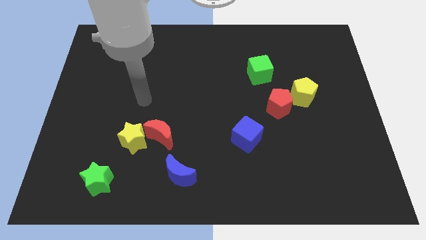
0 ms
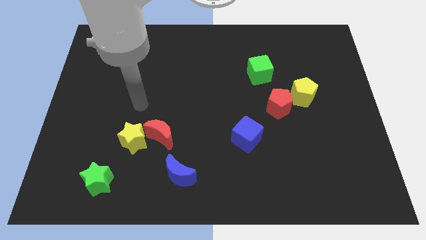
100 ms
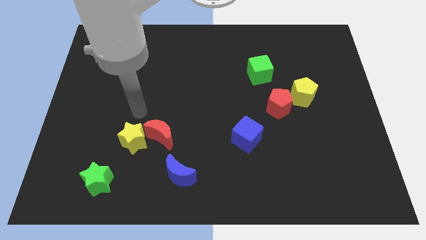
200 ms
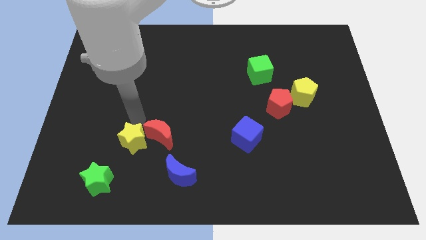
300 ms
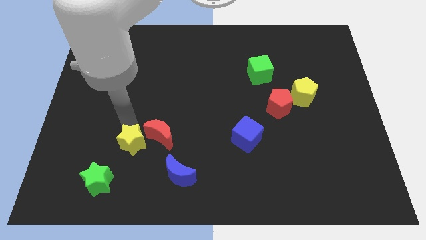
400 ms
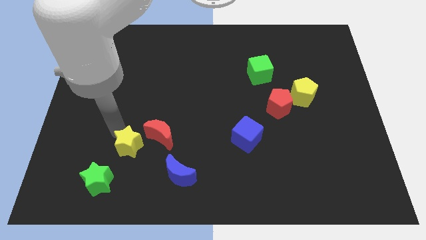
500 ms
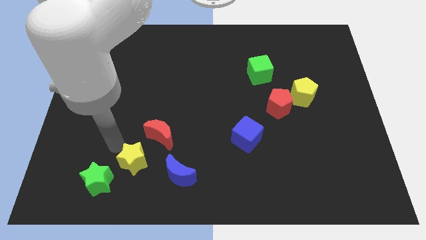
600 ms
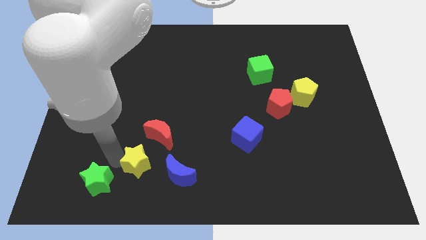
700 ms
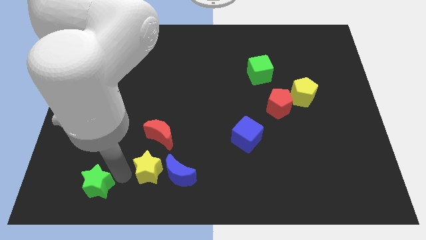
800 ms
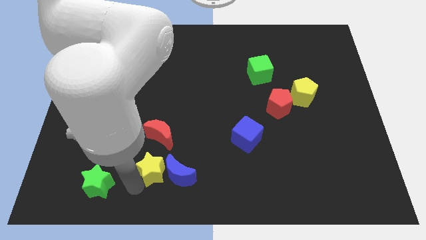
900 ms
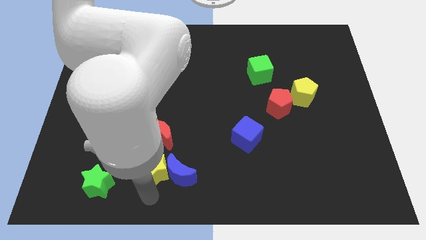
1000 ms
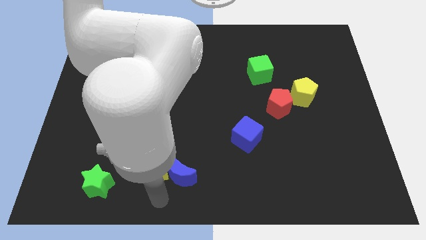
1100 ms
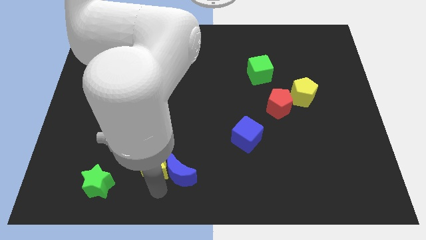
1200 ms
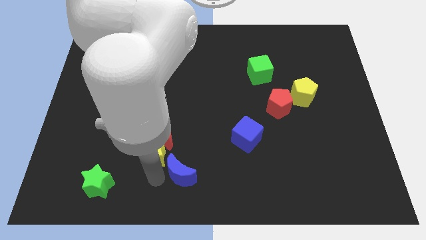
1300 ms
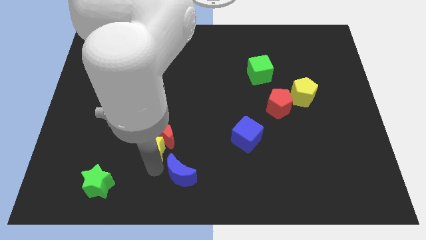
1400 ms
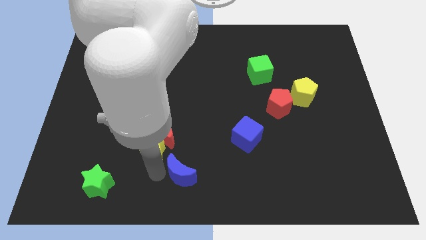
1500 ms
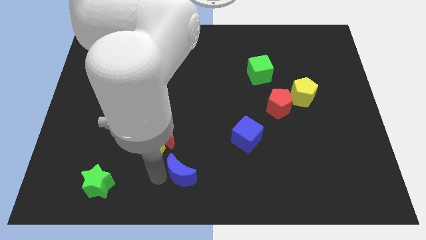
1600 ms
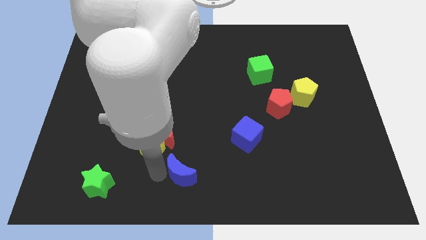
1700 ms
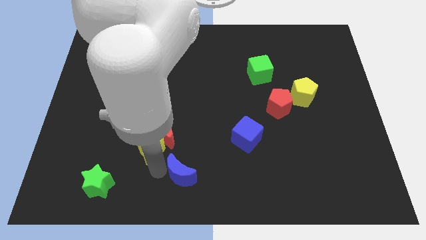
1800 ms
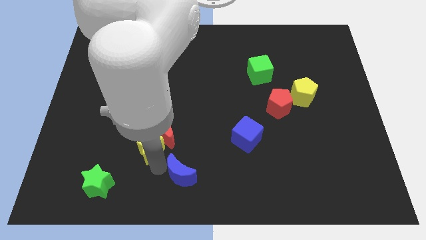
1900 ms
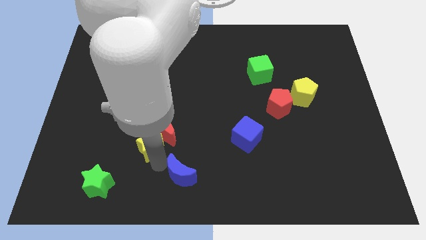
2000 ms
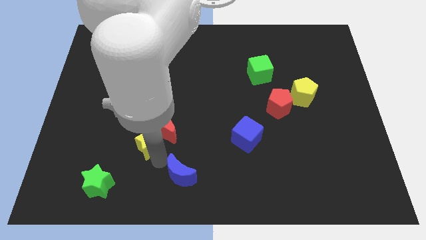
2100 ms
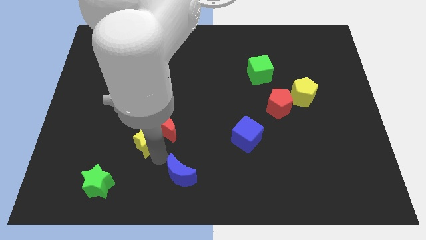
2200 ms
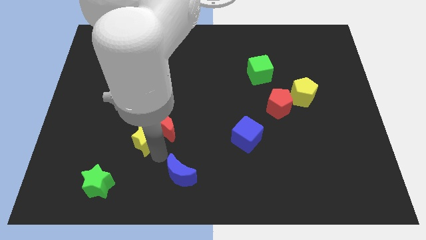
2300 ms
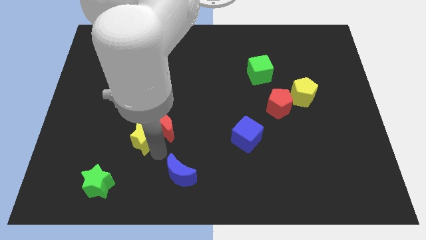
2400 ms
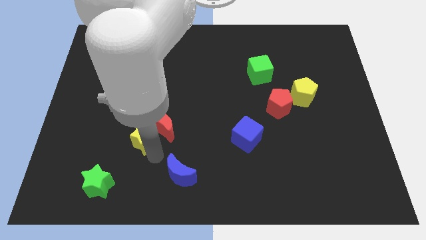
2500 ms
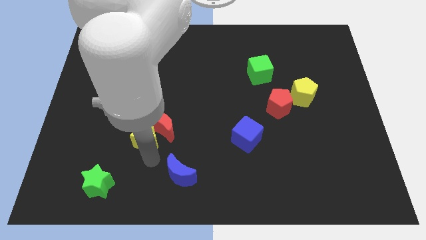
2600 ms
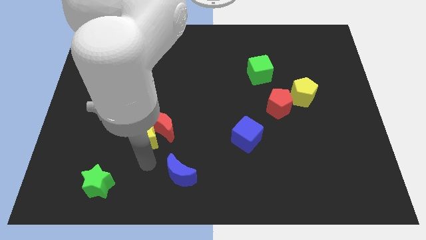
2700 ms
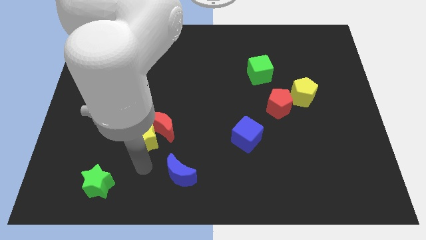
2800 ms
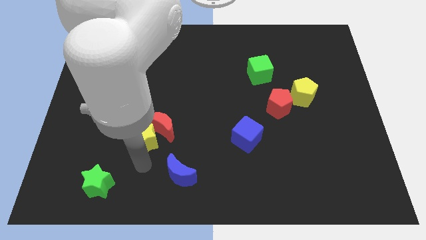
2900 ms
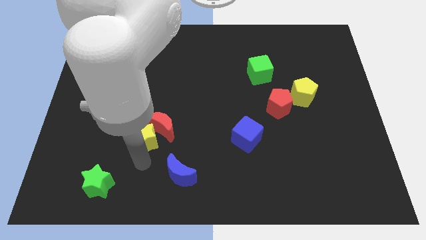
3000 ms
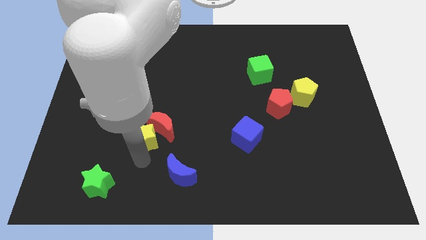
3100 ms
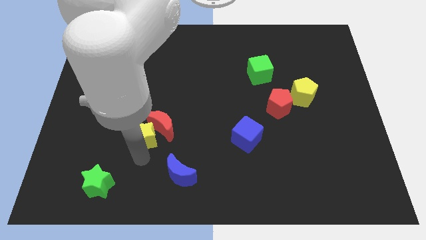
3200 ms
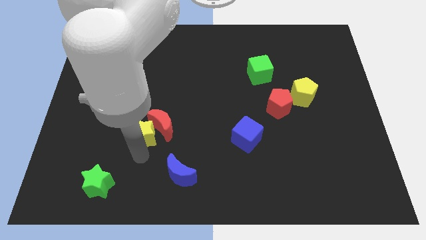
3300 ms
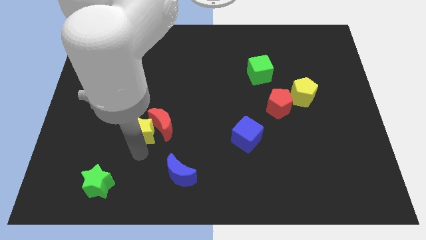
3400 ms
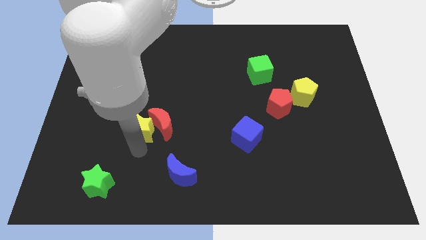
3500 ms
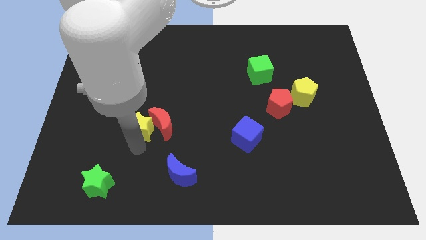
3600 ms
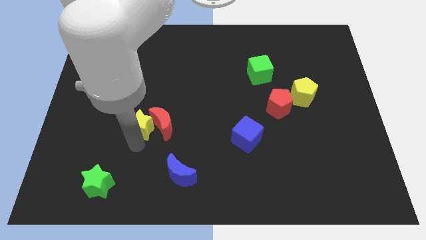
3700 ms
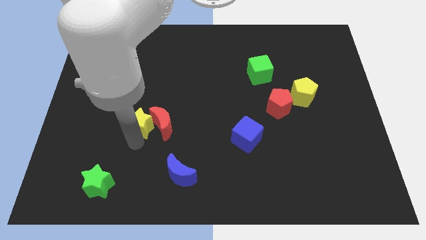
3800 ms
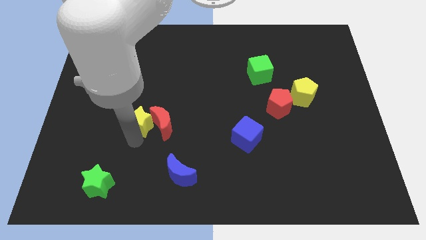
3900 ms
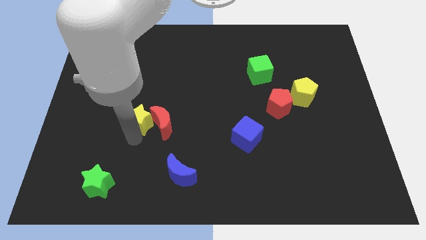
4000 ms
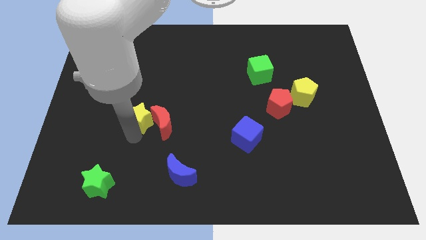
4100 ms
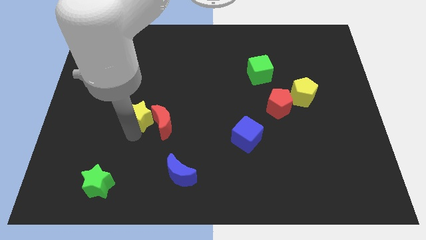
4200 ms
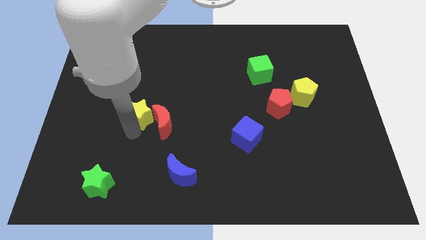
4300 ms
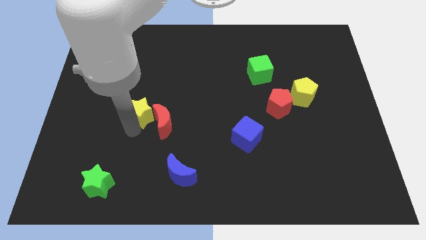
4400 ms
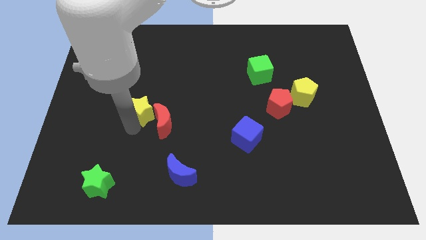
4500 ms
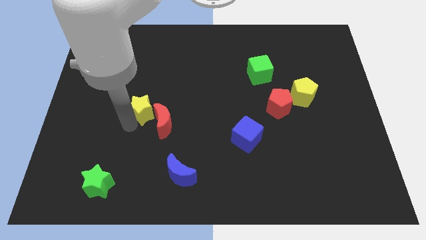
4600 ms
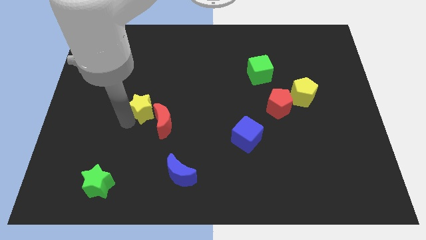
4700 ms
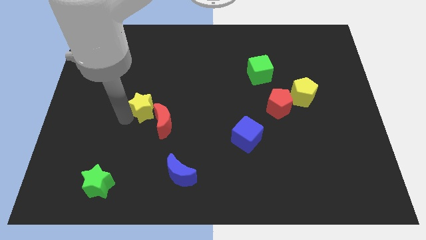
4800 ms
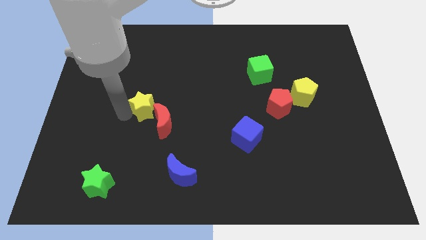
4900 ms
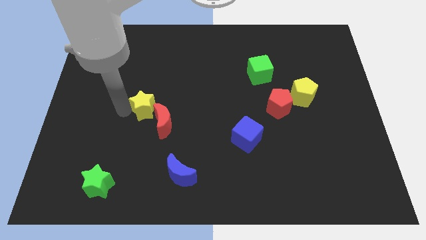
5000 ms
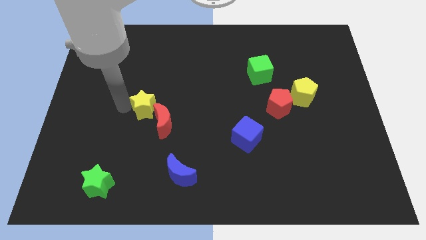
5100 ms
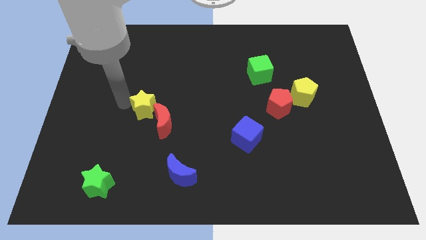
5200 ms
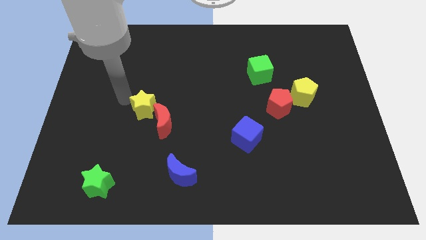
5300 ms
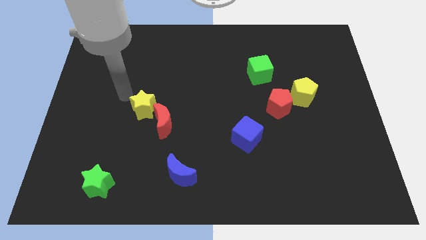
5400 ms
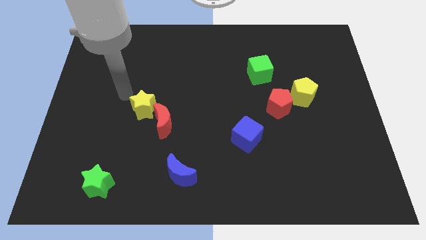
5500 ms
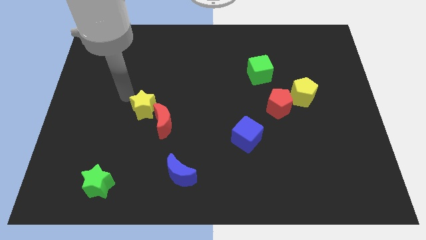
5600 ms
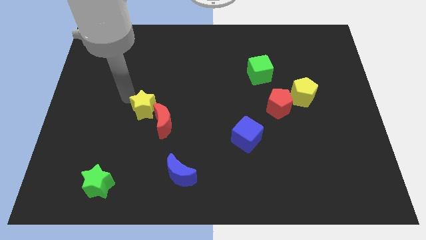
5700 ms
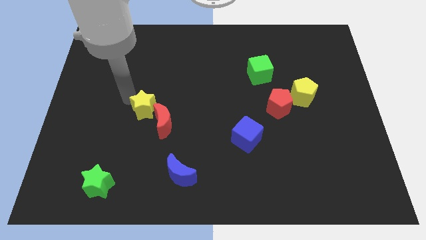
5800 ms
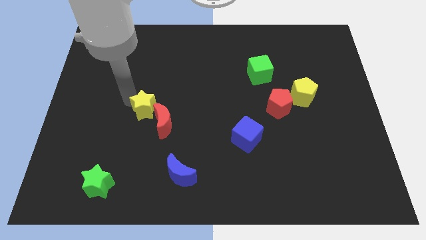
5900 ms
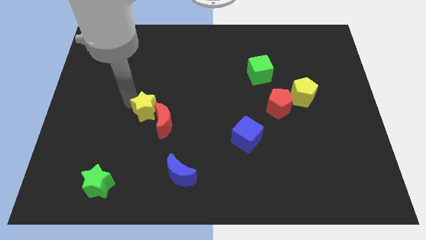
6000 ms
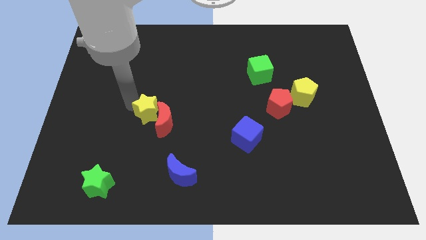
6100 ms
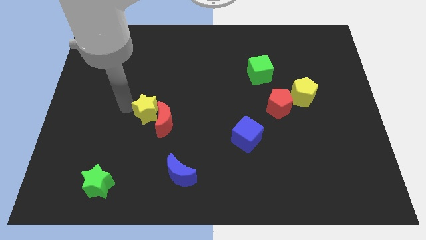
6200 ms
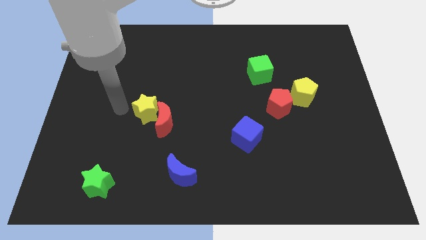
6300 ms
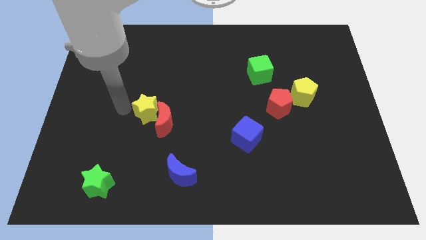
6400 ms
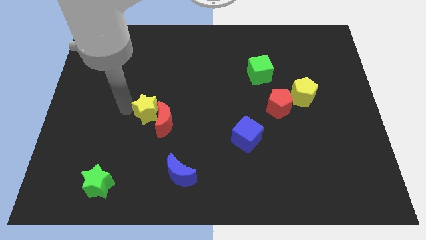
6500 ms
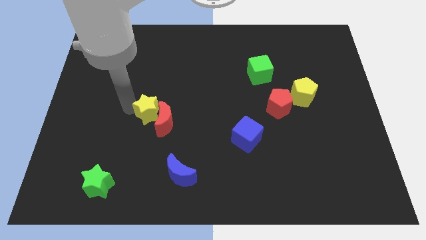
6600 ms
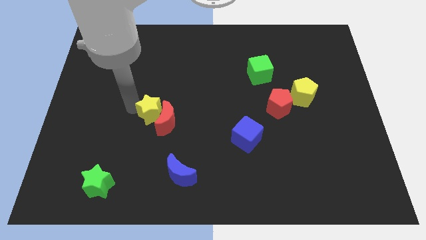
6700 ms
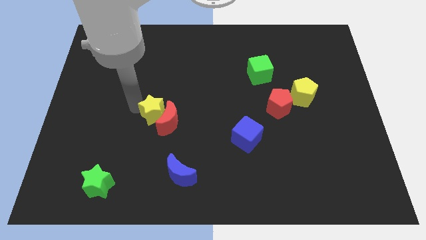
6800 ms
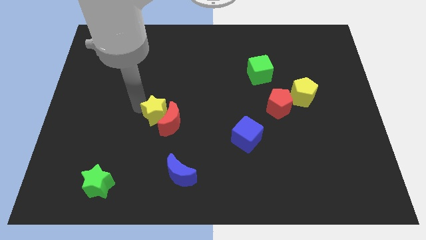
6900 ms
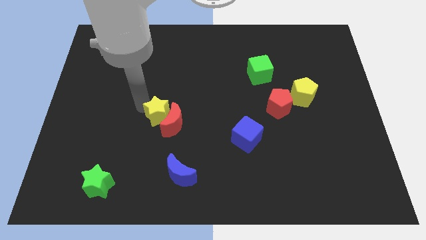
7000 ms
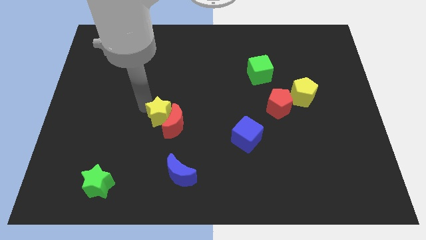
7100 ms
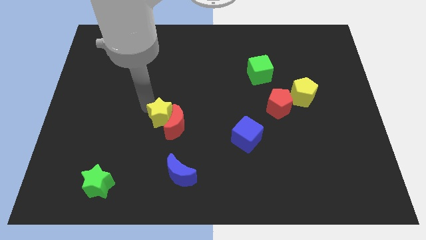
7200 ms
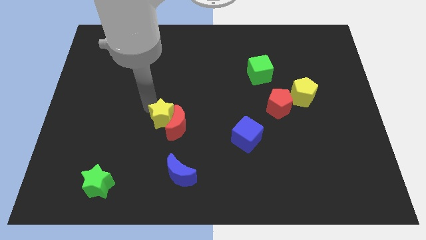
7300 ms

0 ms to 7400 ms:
slide the yellow star to the center
